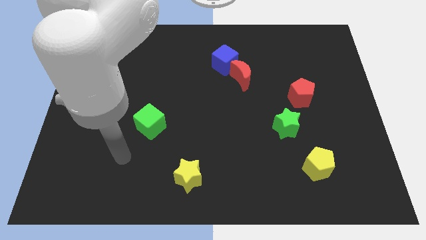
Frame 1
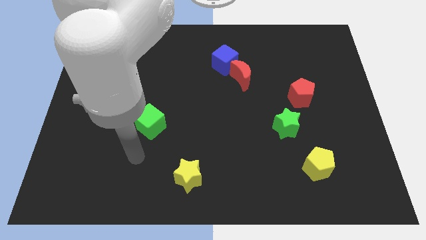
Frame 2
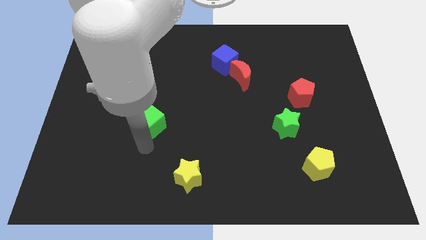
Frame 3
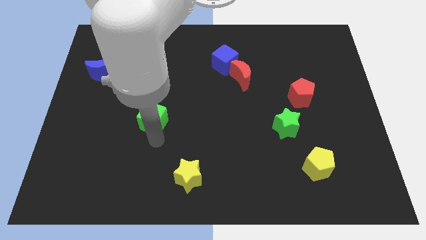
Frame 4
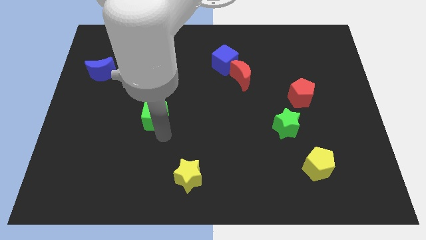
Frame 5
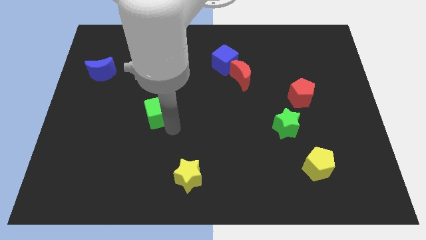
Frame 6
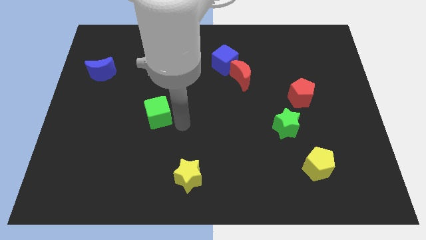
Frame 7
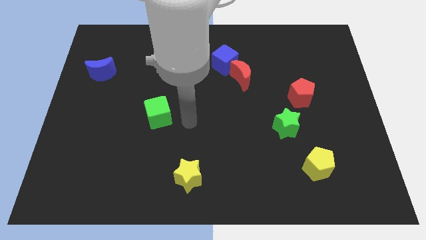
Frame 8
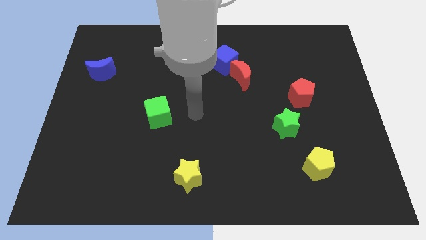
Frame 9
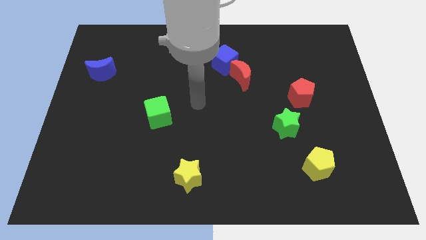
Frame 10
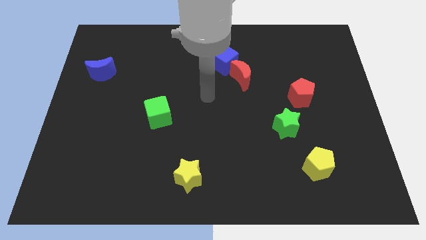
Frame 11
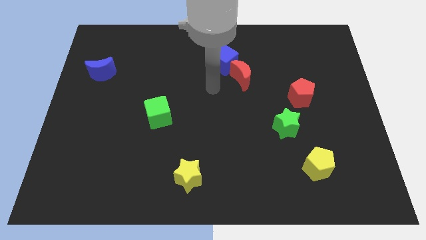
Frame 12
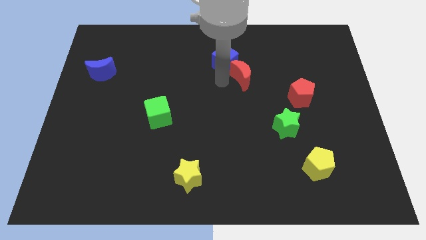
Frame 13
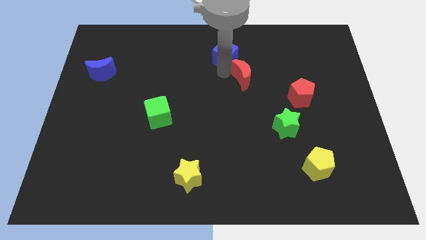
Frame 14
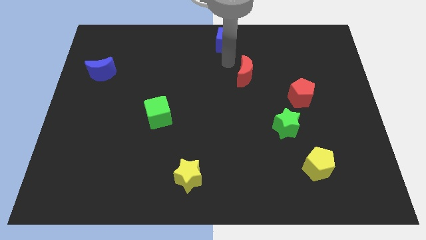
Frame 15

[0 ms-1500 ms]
pull the red moon apart from the blue cube

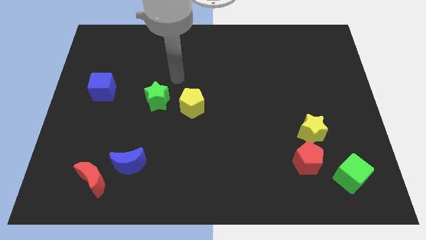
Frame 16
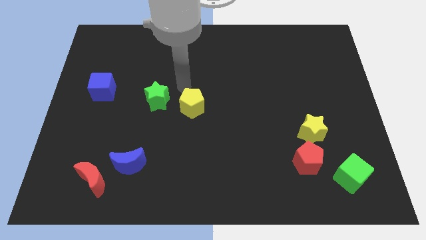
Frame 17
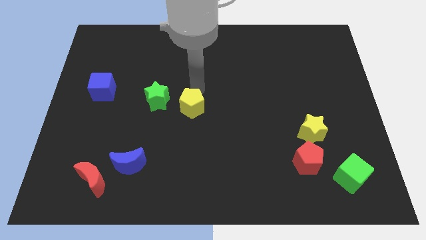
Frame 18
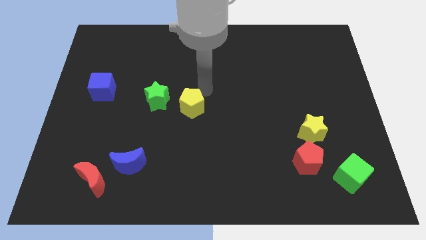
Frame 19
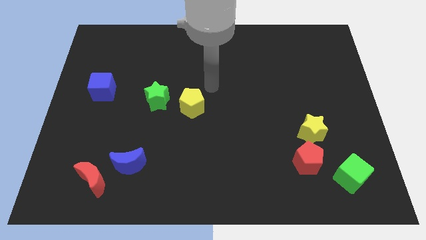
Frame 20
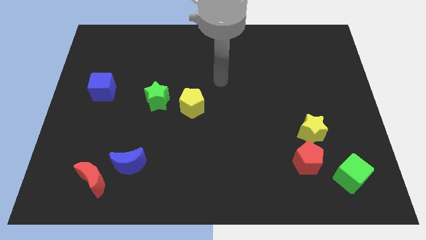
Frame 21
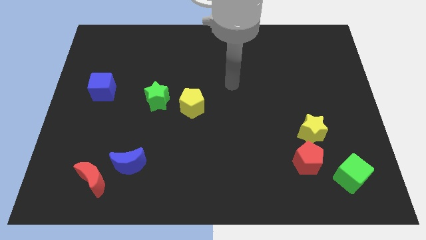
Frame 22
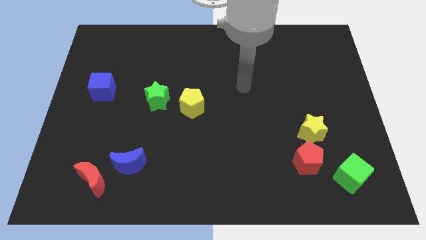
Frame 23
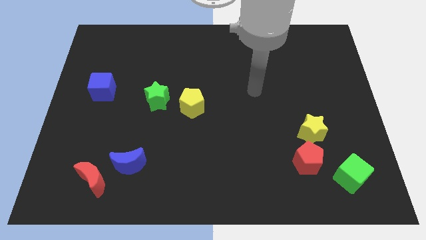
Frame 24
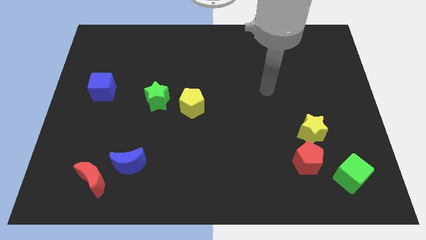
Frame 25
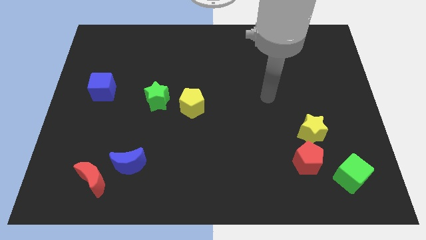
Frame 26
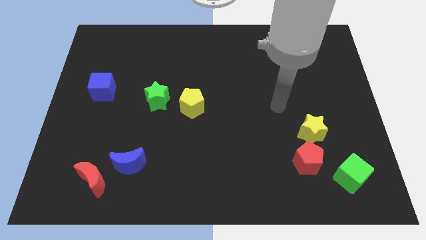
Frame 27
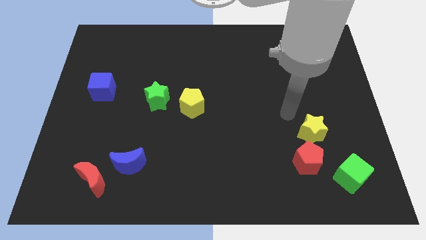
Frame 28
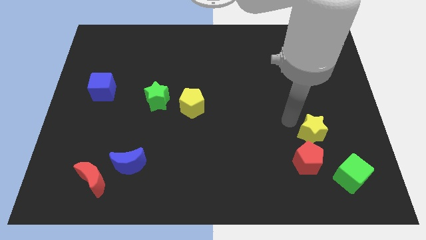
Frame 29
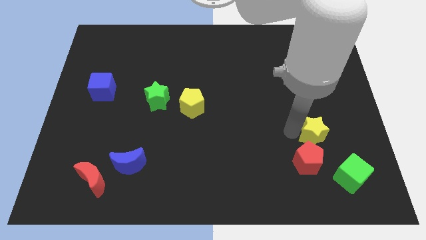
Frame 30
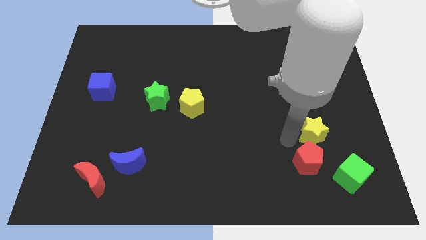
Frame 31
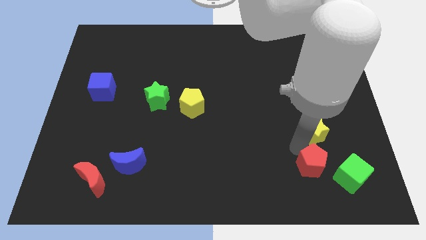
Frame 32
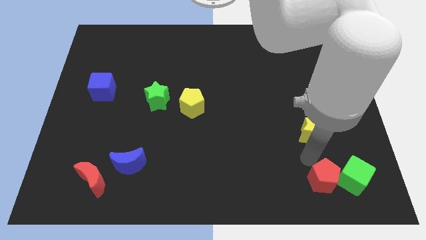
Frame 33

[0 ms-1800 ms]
move the yellow star away from the red pentagon

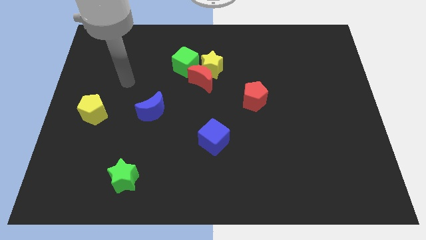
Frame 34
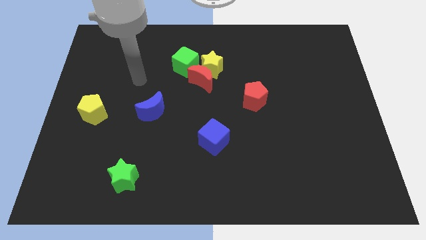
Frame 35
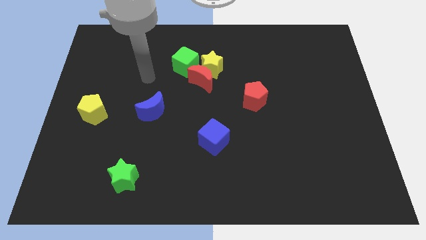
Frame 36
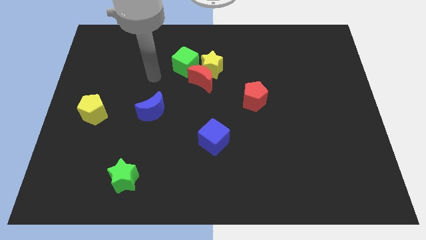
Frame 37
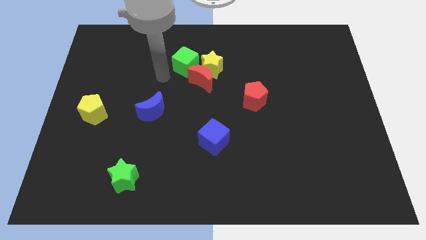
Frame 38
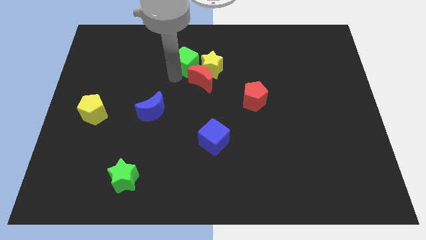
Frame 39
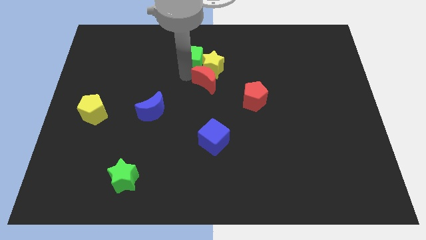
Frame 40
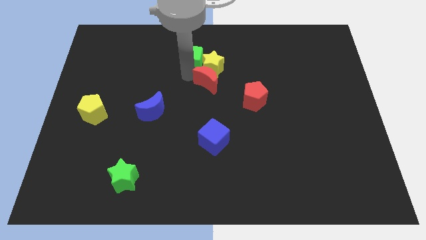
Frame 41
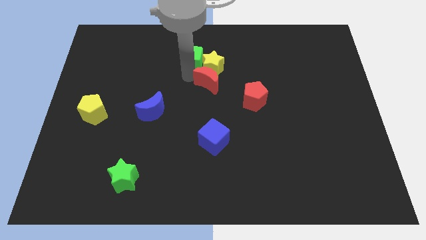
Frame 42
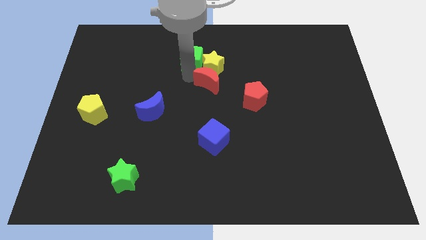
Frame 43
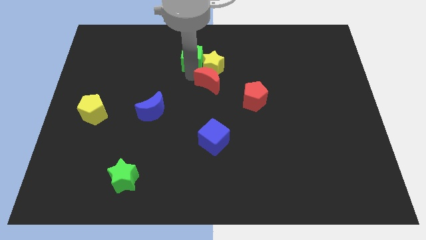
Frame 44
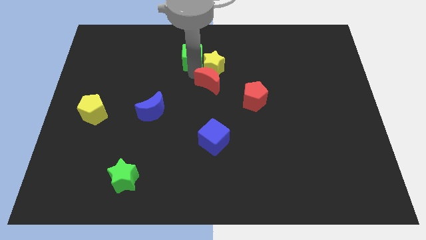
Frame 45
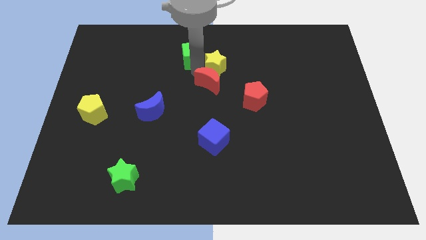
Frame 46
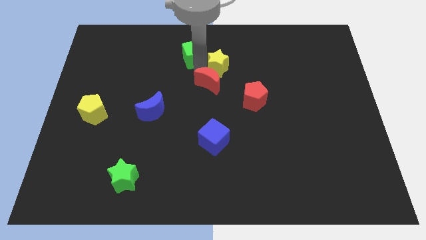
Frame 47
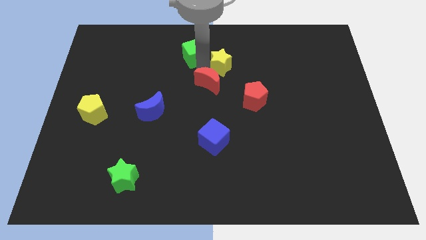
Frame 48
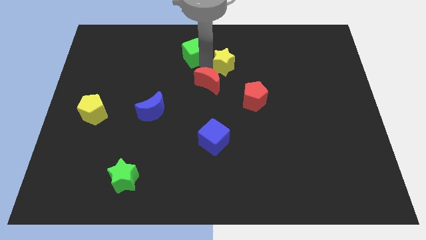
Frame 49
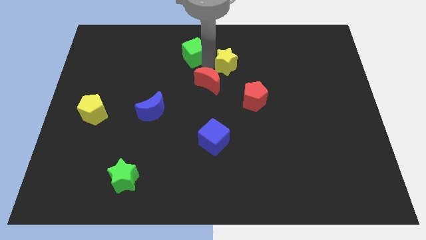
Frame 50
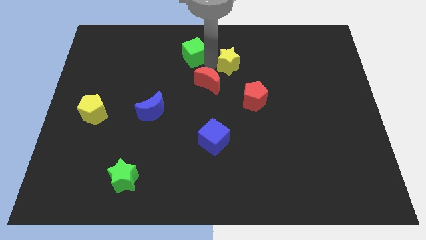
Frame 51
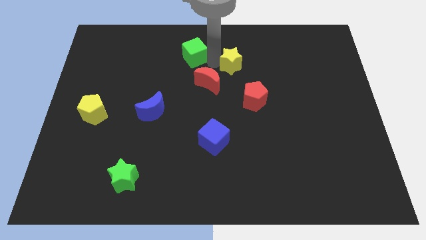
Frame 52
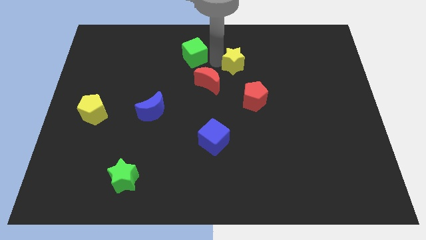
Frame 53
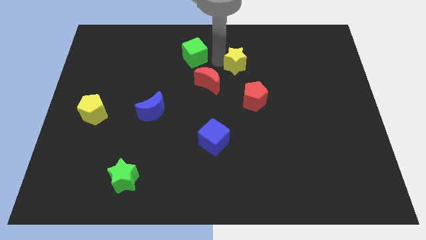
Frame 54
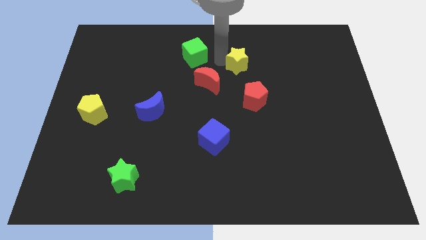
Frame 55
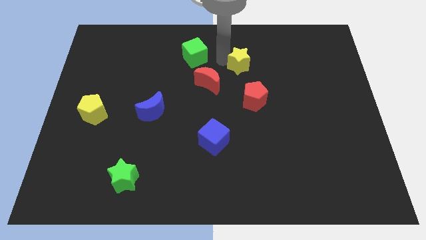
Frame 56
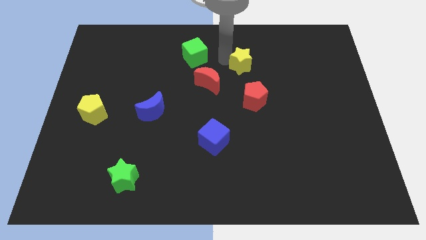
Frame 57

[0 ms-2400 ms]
separate the yellow star from the red moon and green cube

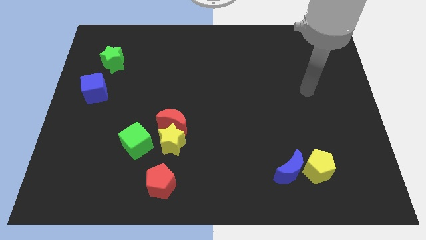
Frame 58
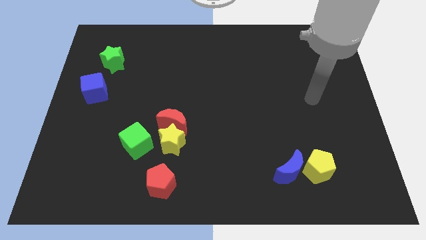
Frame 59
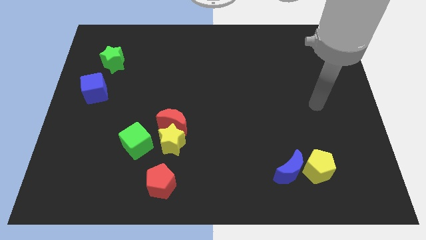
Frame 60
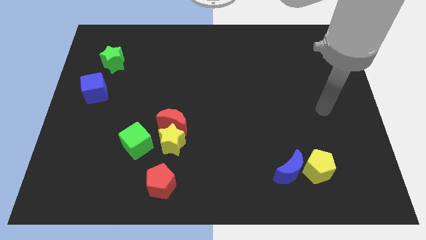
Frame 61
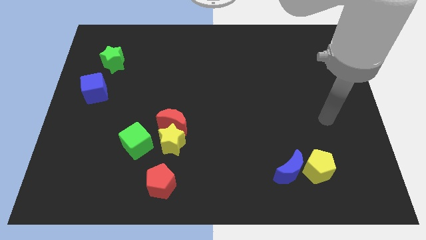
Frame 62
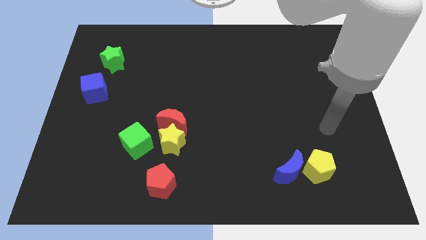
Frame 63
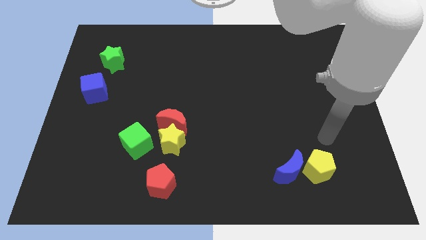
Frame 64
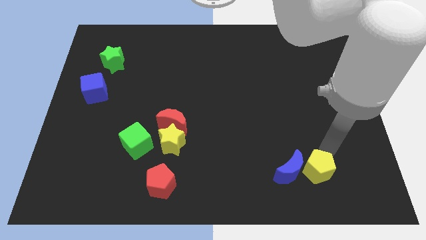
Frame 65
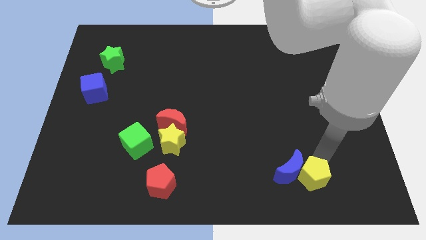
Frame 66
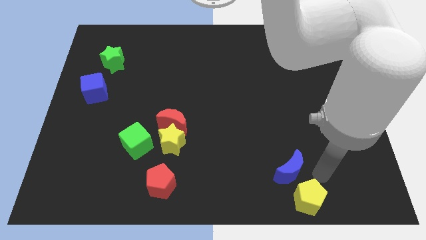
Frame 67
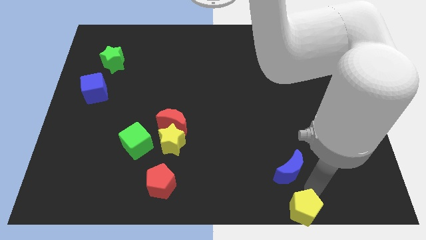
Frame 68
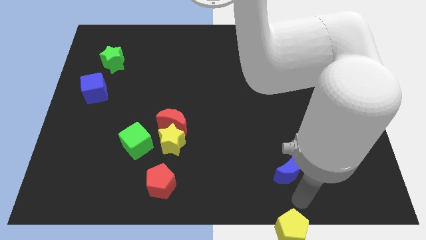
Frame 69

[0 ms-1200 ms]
pull the blue moon apart from the yellow pentagon

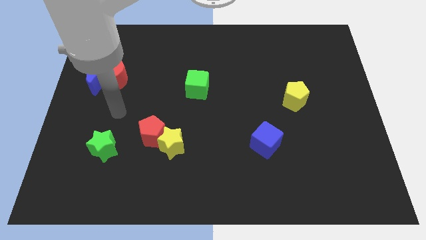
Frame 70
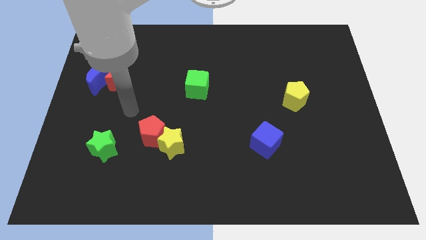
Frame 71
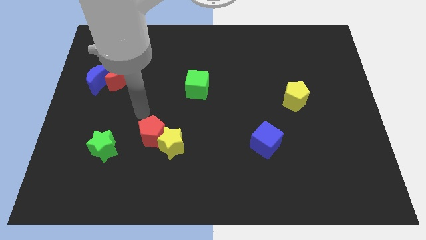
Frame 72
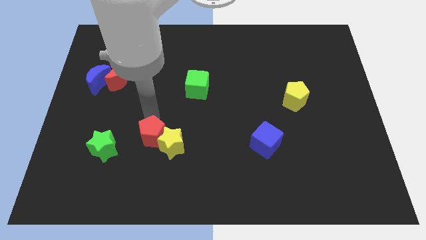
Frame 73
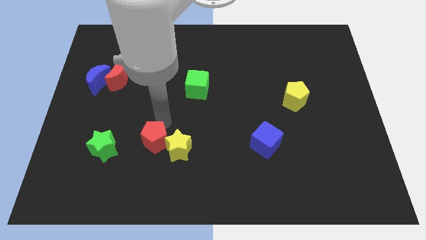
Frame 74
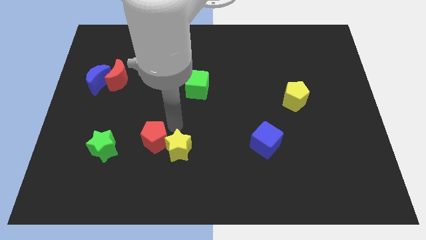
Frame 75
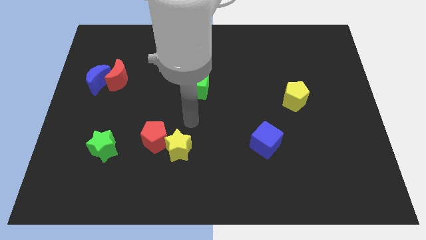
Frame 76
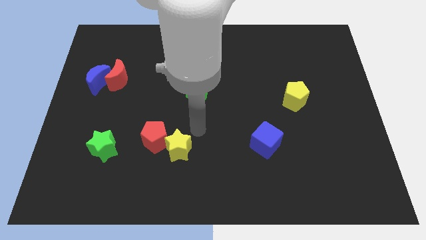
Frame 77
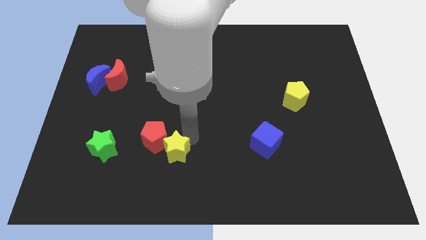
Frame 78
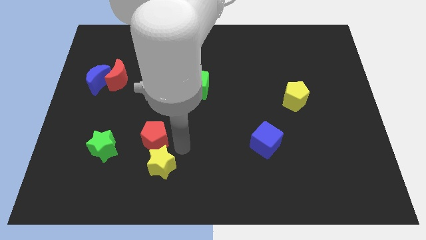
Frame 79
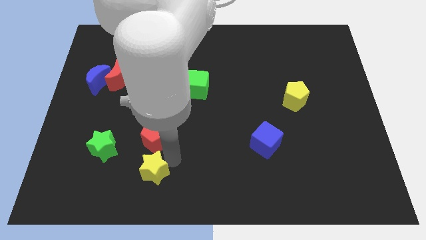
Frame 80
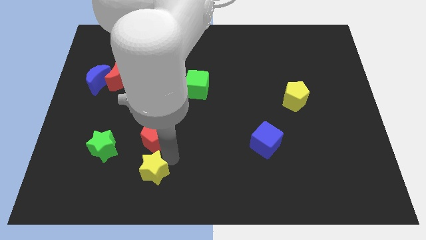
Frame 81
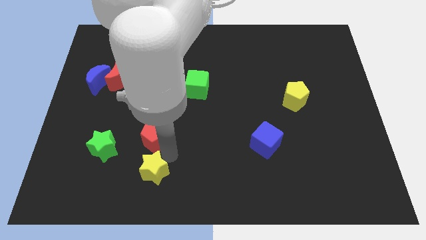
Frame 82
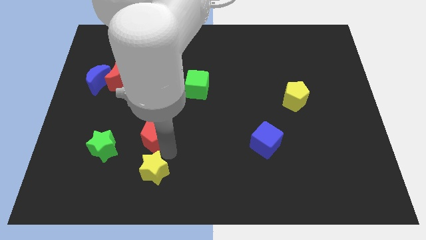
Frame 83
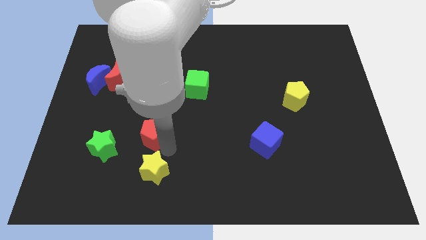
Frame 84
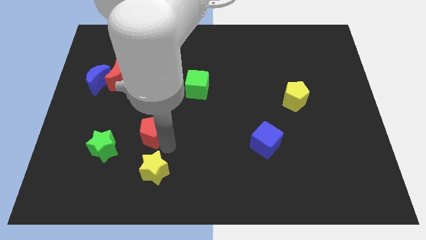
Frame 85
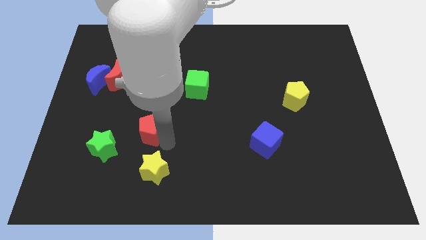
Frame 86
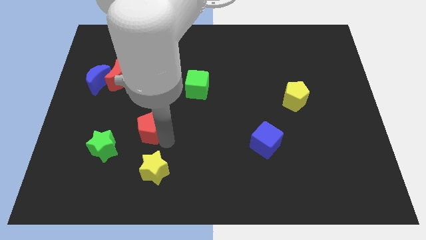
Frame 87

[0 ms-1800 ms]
separate the red pentagon from the yellow star

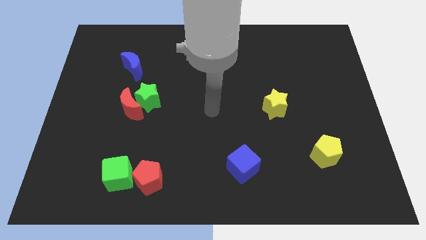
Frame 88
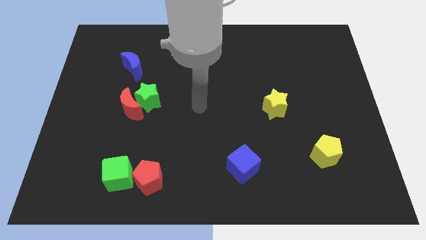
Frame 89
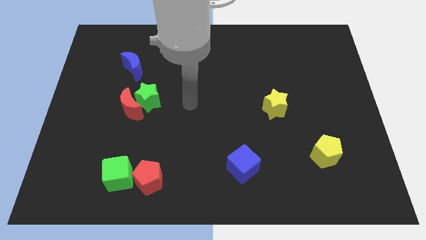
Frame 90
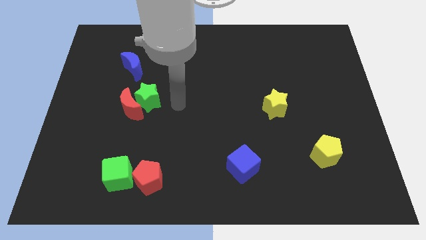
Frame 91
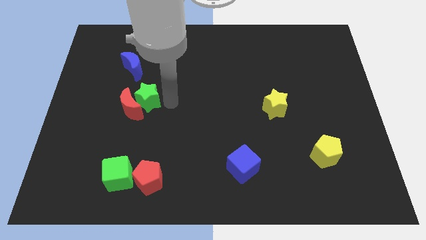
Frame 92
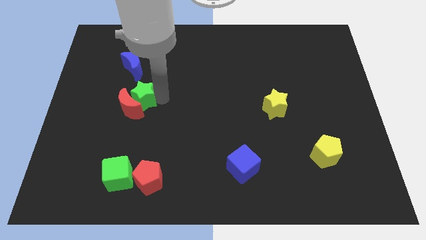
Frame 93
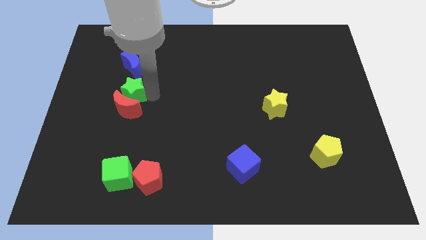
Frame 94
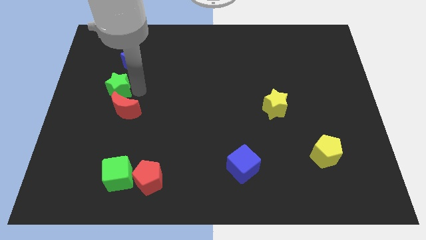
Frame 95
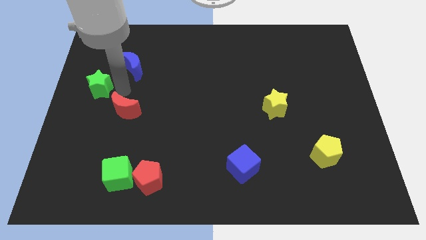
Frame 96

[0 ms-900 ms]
move the red moon away from the green star
